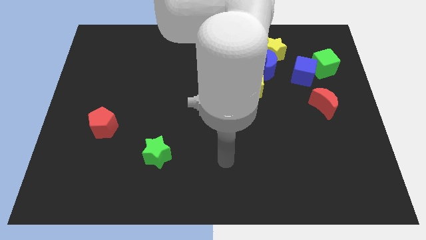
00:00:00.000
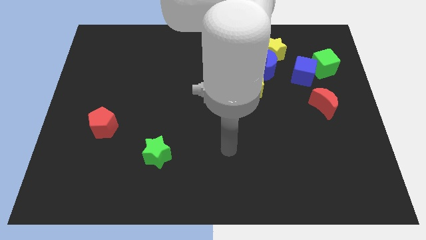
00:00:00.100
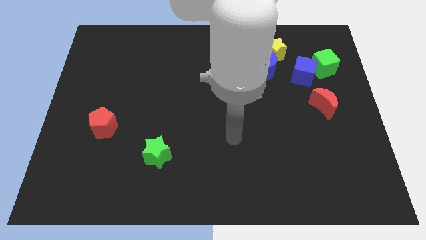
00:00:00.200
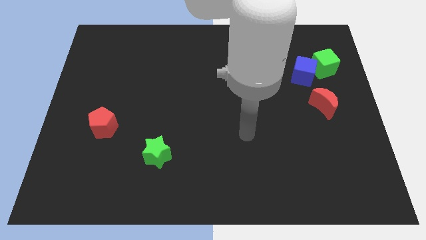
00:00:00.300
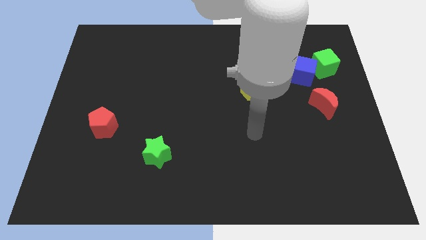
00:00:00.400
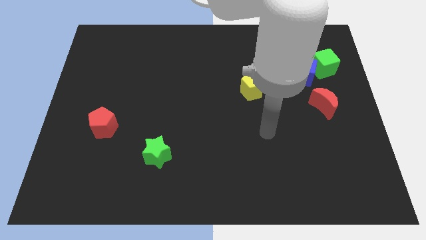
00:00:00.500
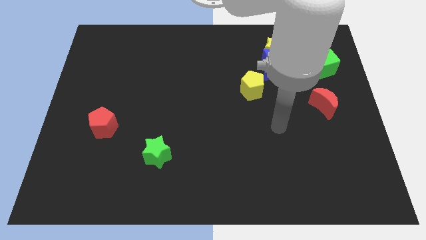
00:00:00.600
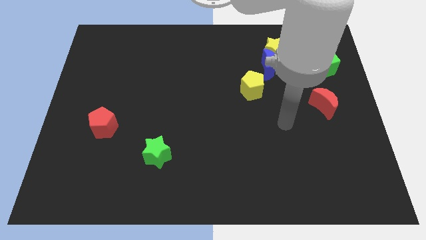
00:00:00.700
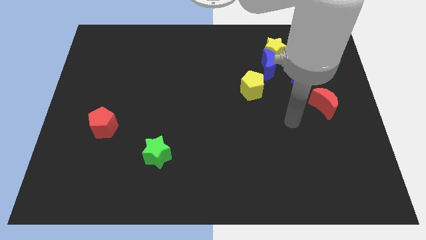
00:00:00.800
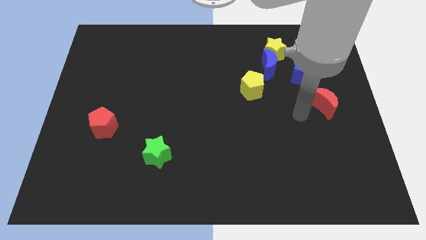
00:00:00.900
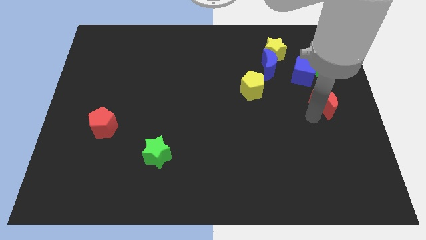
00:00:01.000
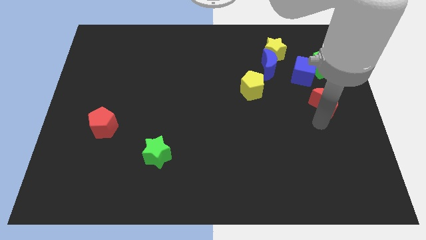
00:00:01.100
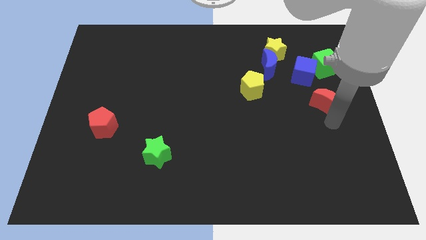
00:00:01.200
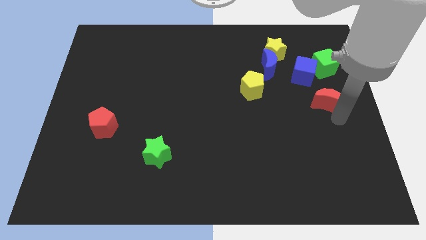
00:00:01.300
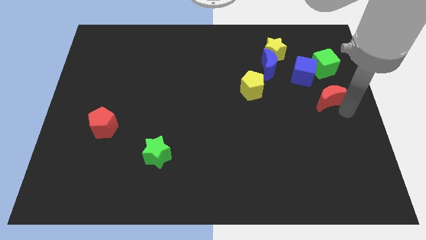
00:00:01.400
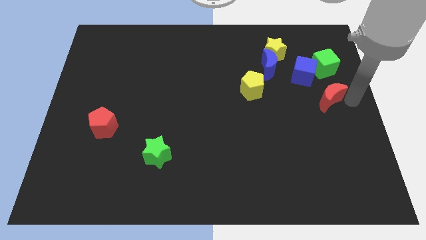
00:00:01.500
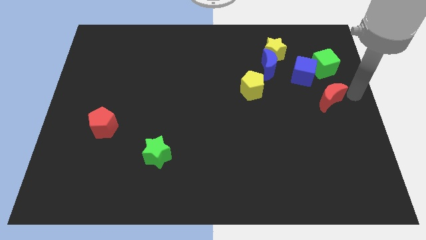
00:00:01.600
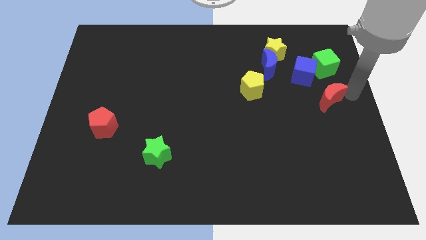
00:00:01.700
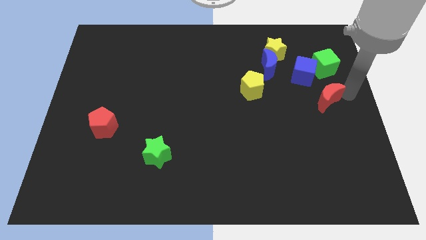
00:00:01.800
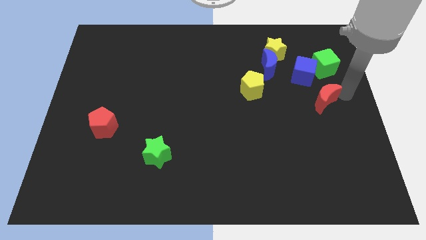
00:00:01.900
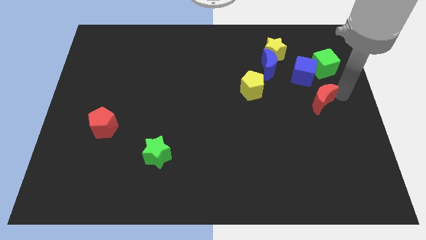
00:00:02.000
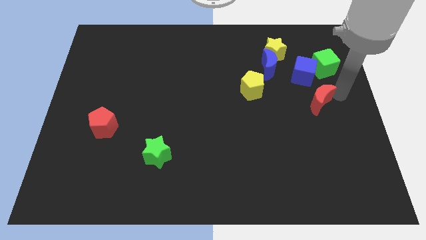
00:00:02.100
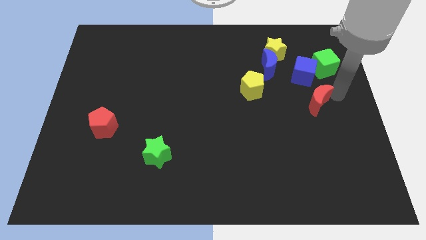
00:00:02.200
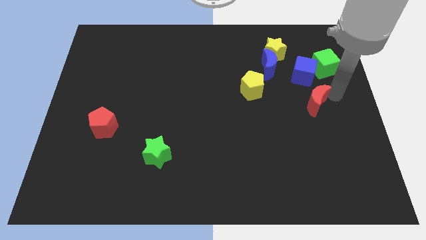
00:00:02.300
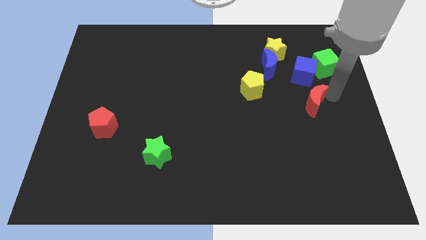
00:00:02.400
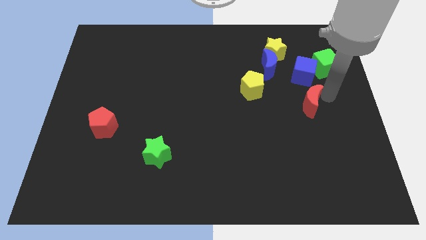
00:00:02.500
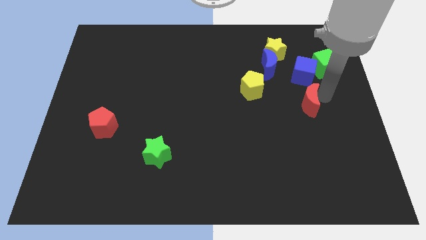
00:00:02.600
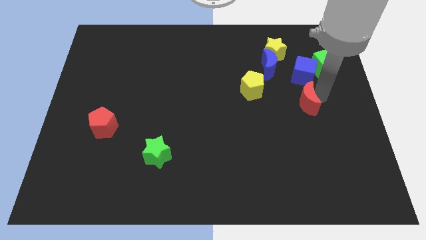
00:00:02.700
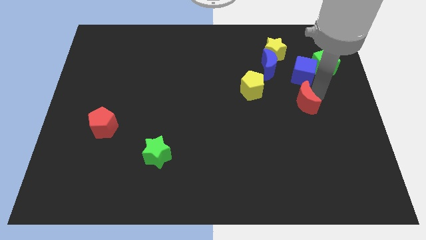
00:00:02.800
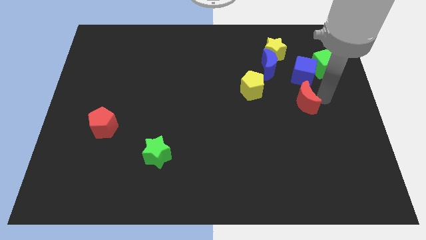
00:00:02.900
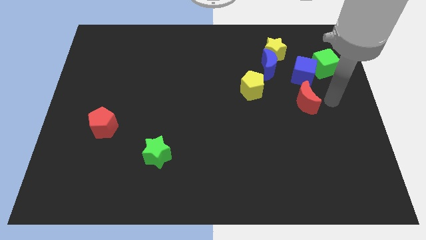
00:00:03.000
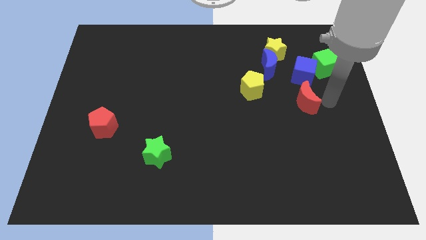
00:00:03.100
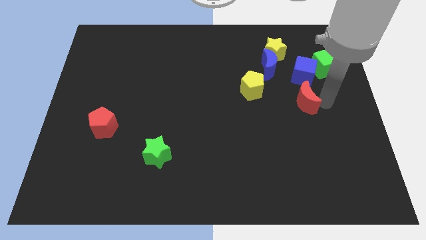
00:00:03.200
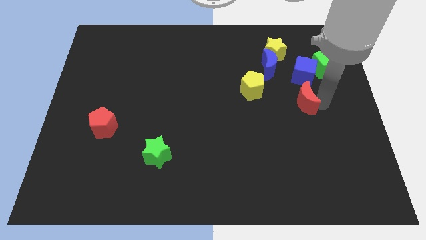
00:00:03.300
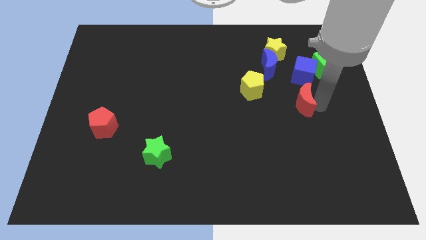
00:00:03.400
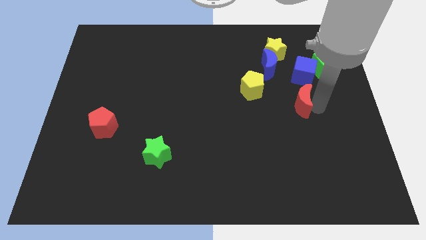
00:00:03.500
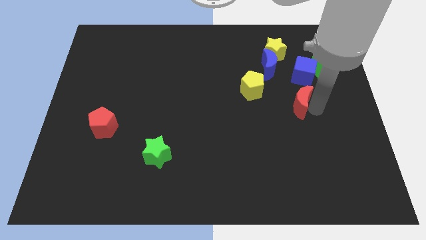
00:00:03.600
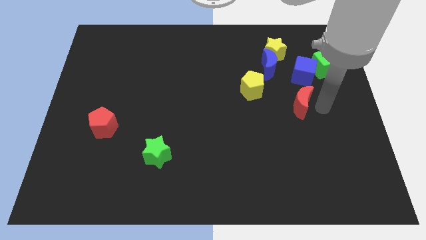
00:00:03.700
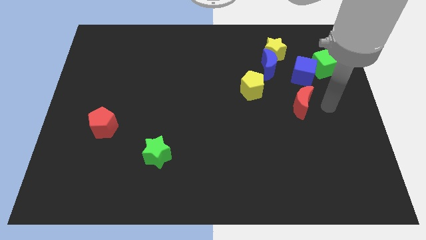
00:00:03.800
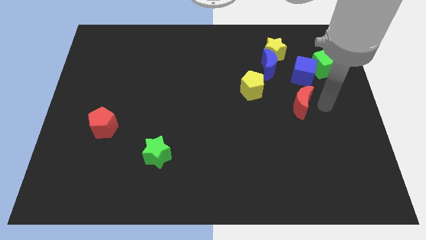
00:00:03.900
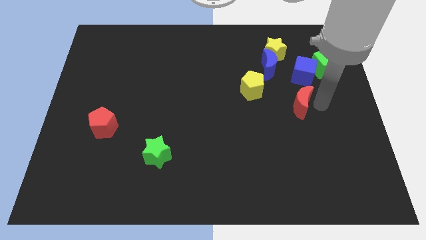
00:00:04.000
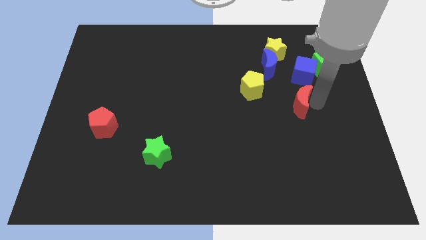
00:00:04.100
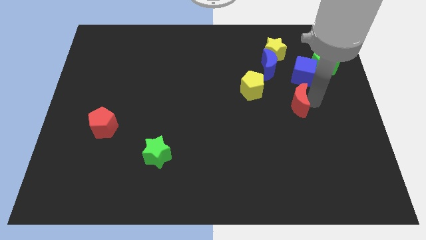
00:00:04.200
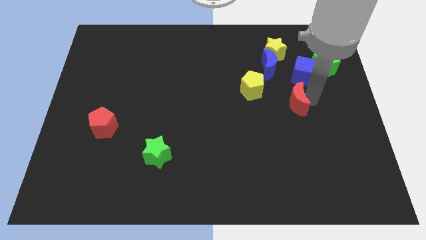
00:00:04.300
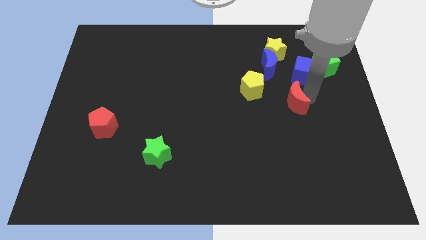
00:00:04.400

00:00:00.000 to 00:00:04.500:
push the red moon a bit to the left

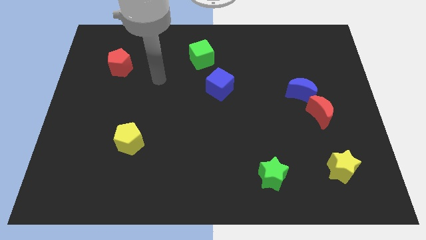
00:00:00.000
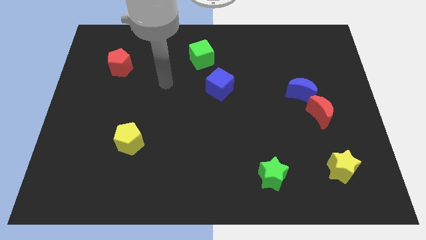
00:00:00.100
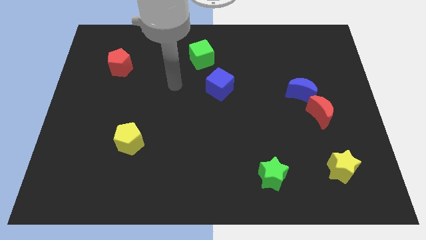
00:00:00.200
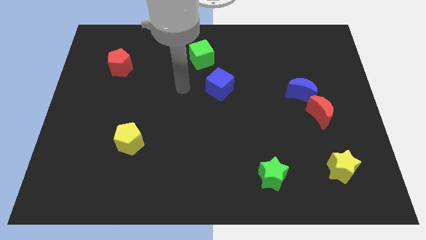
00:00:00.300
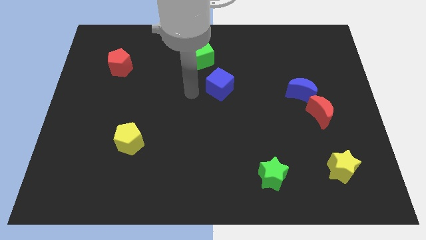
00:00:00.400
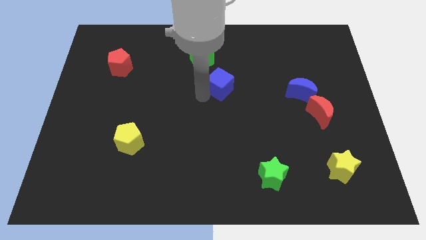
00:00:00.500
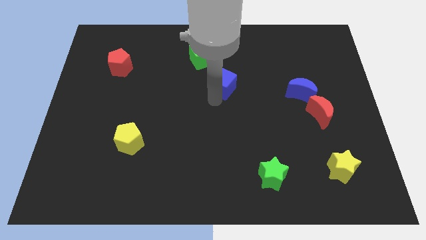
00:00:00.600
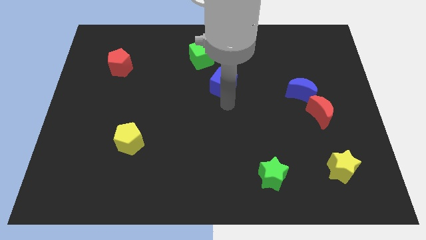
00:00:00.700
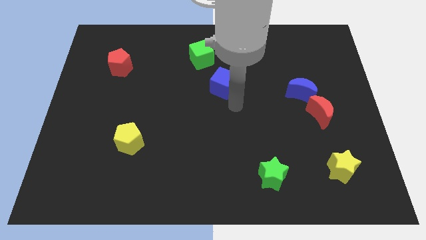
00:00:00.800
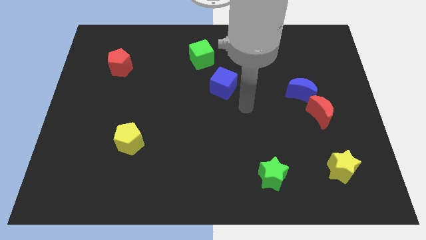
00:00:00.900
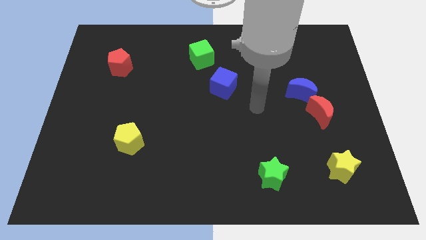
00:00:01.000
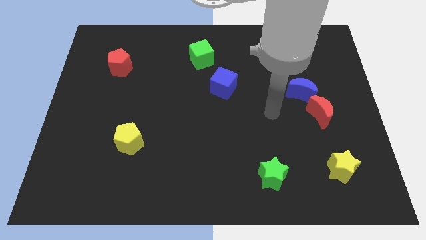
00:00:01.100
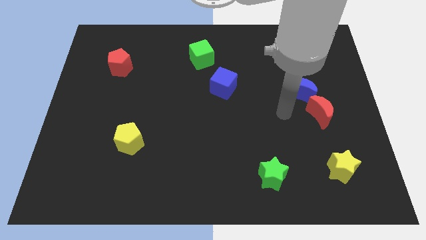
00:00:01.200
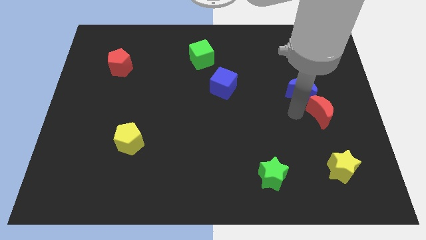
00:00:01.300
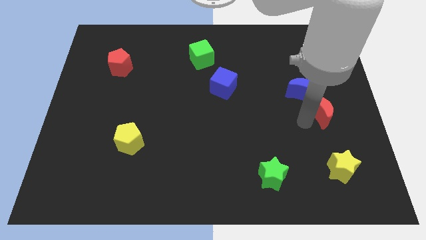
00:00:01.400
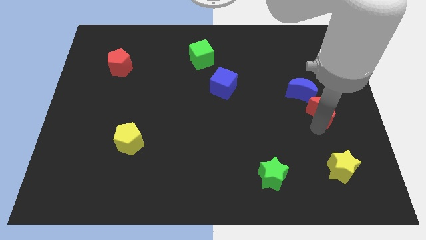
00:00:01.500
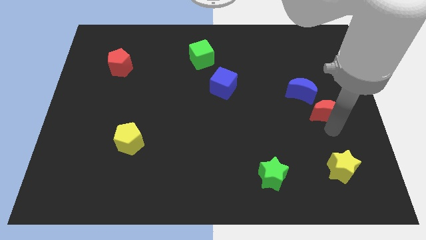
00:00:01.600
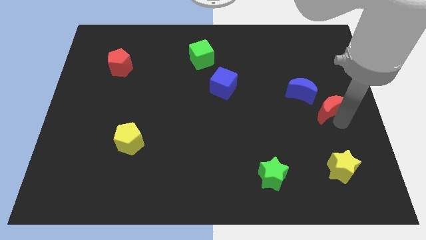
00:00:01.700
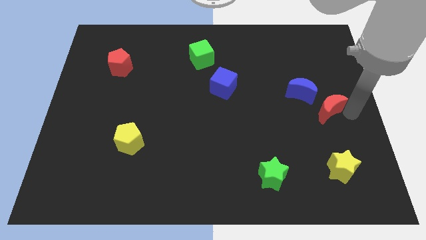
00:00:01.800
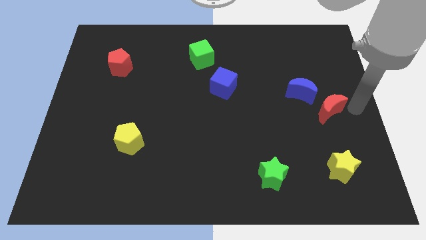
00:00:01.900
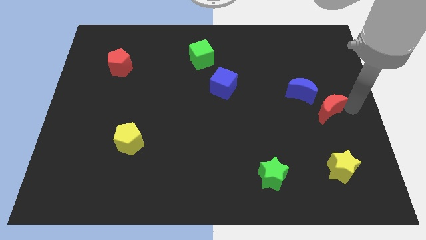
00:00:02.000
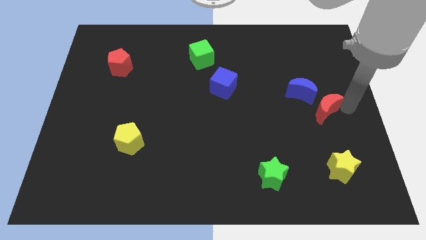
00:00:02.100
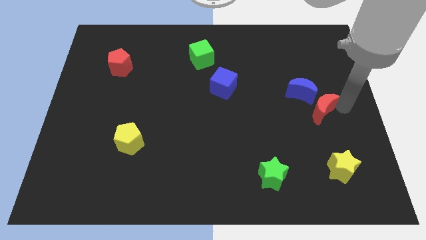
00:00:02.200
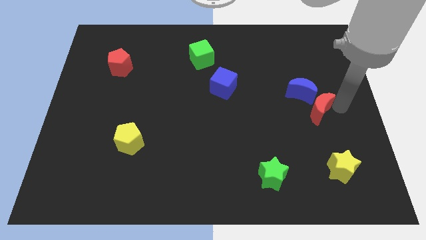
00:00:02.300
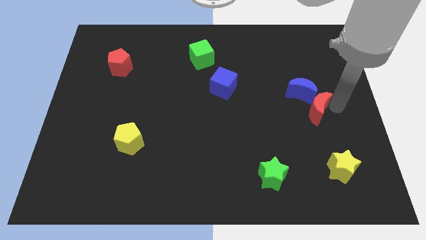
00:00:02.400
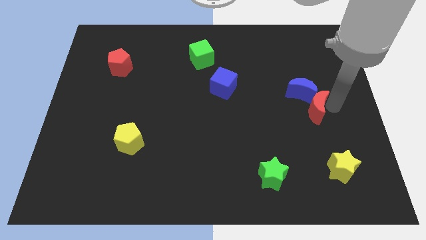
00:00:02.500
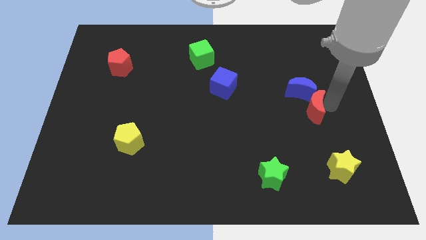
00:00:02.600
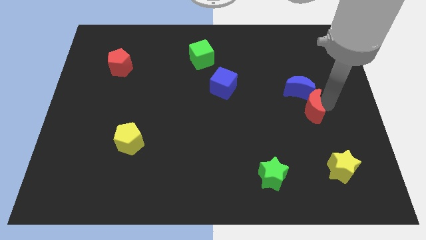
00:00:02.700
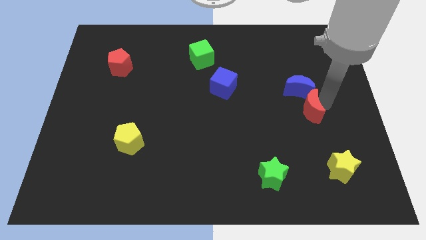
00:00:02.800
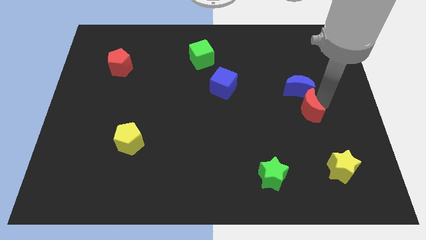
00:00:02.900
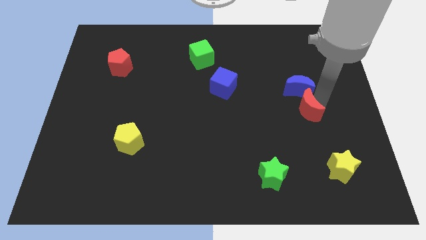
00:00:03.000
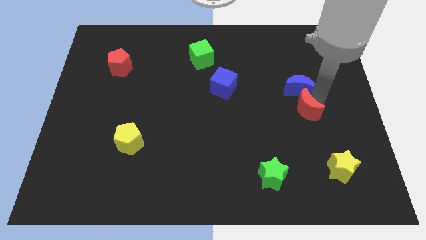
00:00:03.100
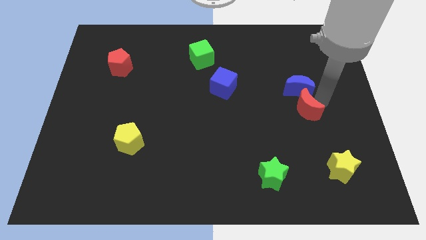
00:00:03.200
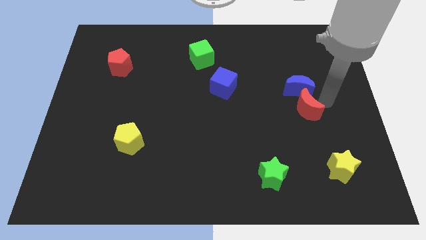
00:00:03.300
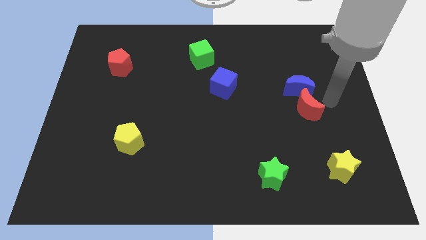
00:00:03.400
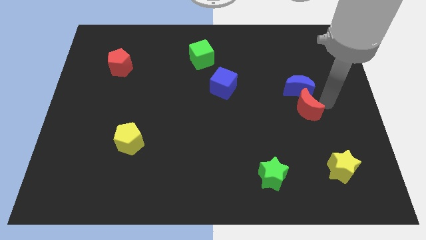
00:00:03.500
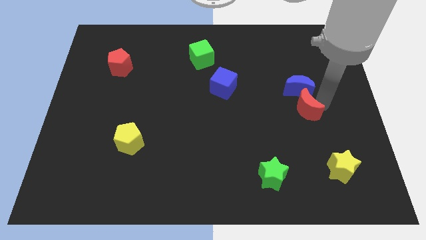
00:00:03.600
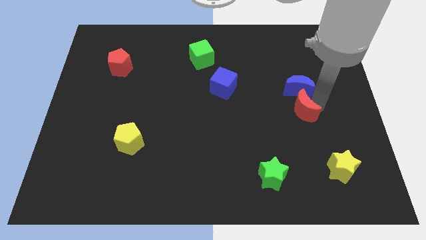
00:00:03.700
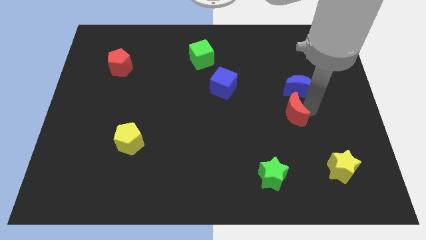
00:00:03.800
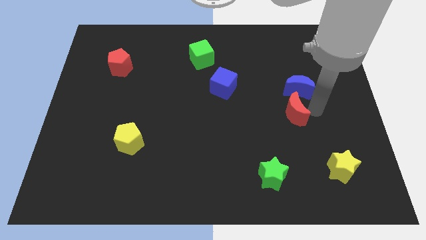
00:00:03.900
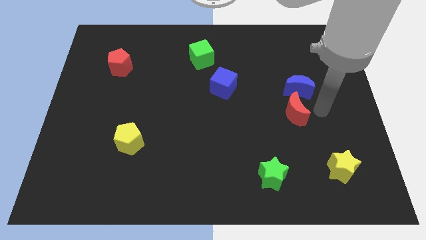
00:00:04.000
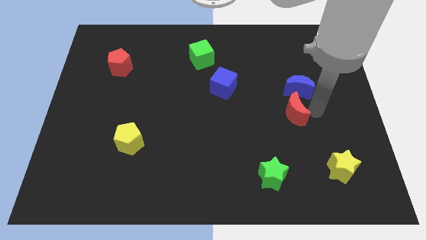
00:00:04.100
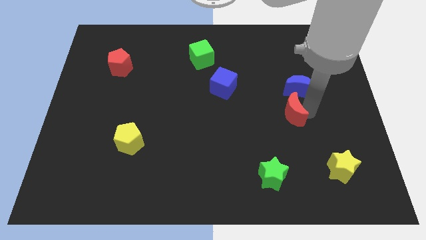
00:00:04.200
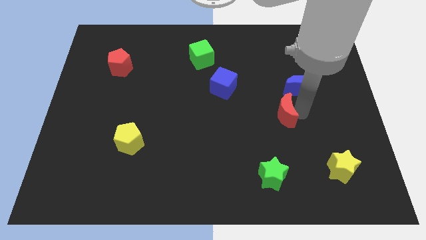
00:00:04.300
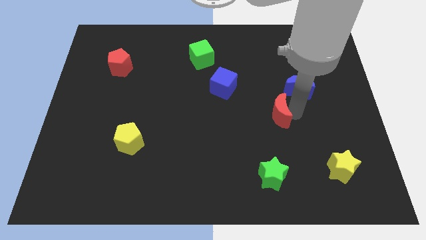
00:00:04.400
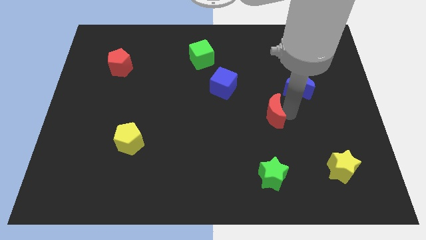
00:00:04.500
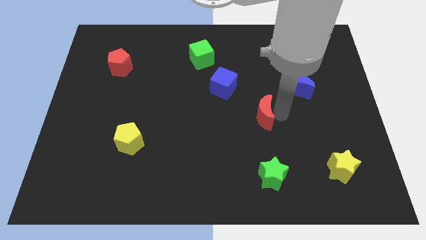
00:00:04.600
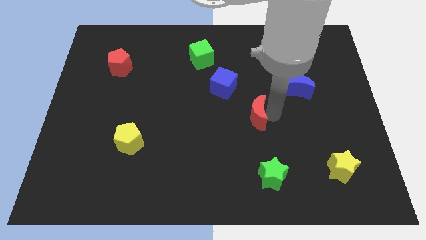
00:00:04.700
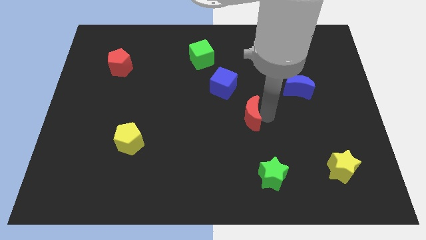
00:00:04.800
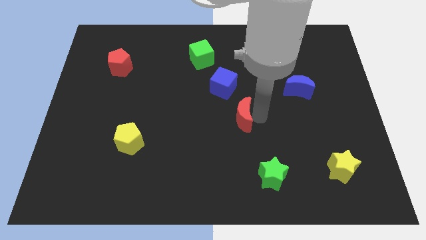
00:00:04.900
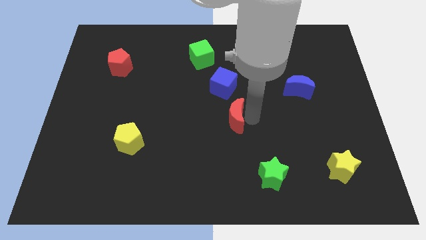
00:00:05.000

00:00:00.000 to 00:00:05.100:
push the red moon left
